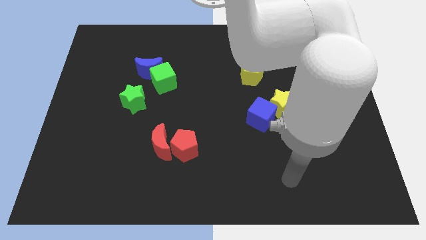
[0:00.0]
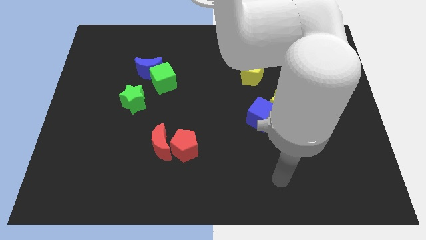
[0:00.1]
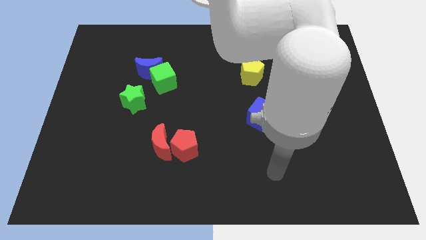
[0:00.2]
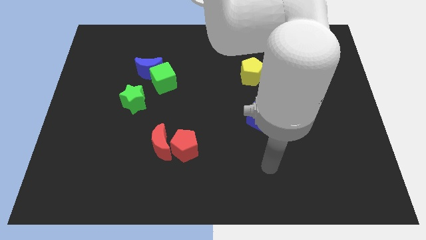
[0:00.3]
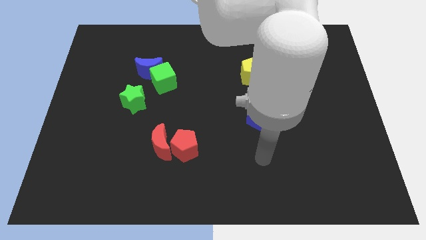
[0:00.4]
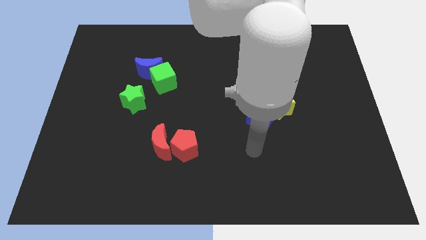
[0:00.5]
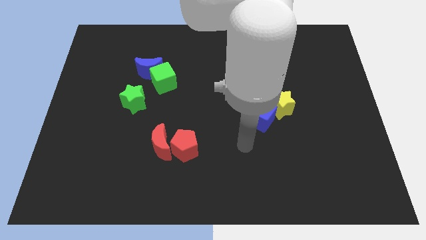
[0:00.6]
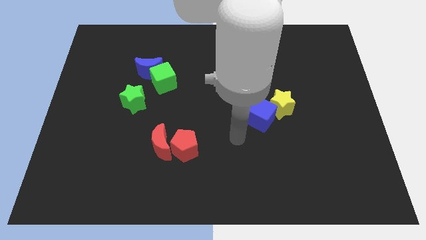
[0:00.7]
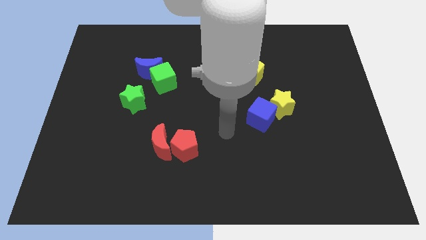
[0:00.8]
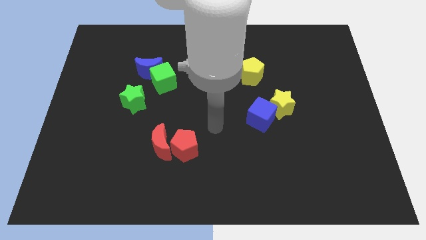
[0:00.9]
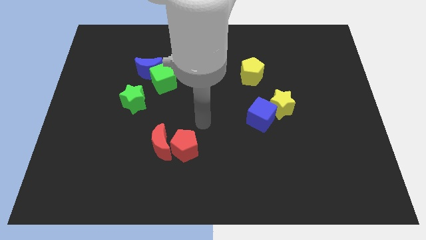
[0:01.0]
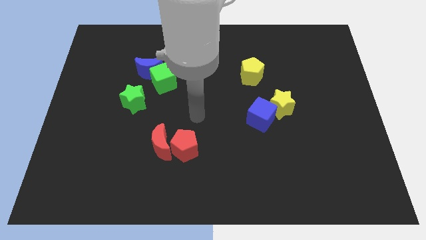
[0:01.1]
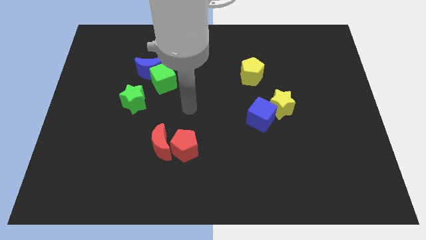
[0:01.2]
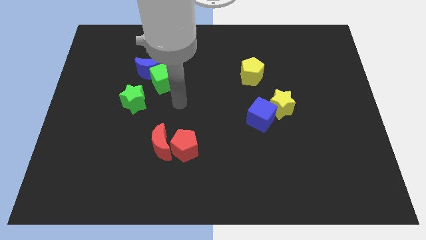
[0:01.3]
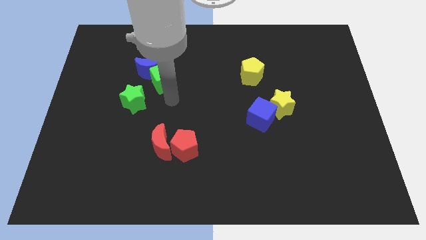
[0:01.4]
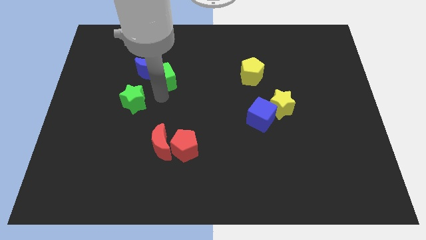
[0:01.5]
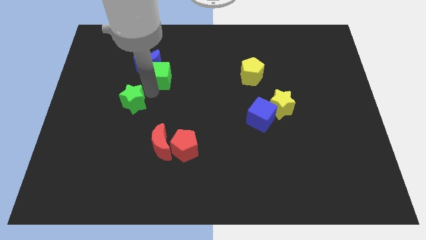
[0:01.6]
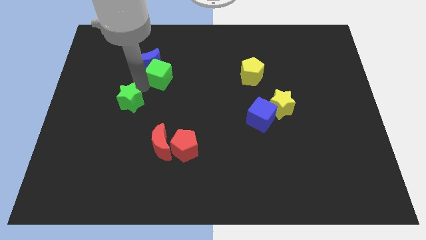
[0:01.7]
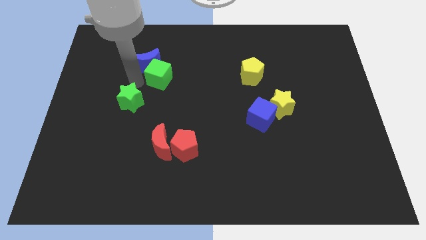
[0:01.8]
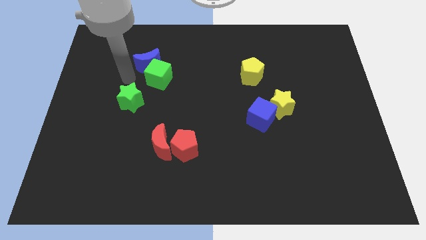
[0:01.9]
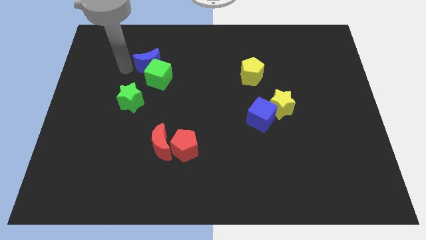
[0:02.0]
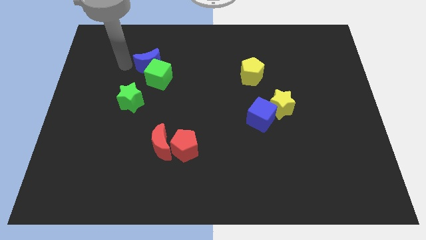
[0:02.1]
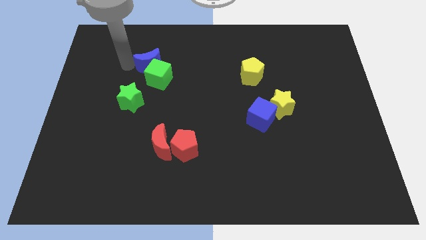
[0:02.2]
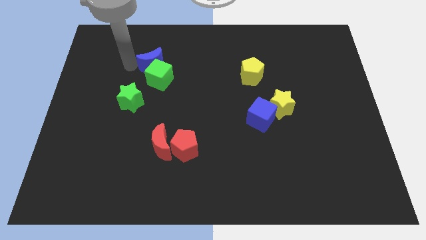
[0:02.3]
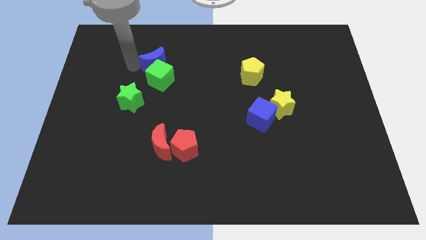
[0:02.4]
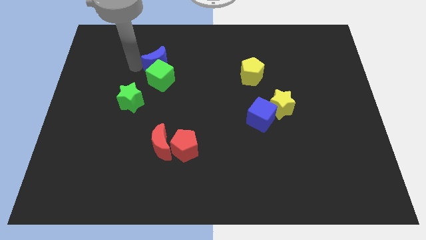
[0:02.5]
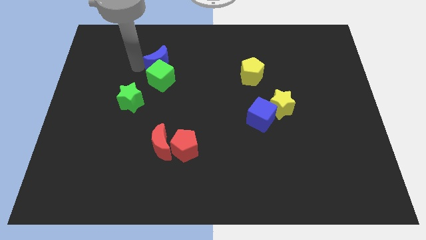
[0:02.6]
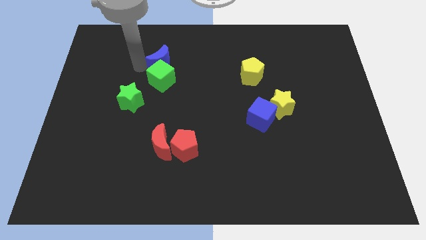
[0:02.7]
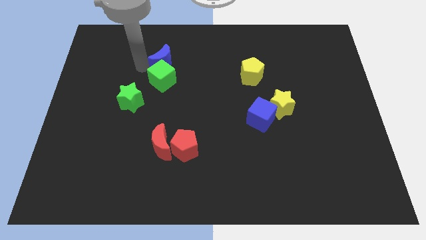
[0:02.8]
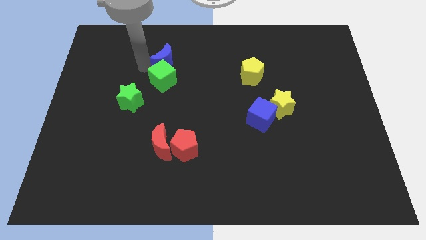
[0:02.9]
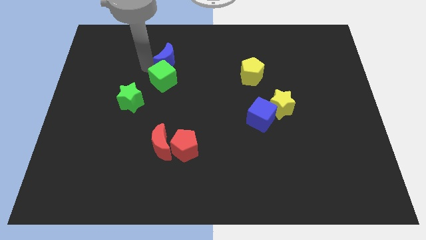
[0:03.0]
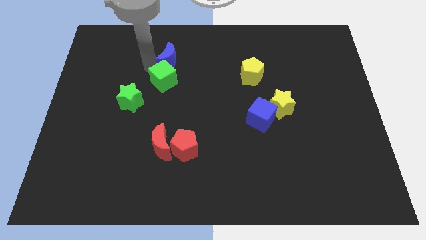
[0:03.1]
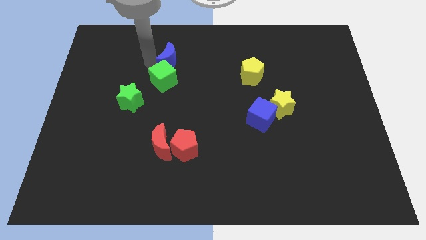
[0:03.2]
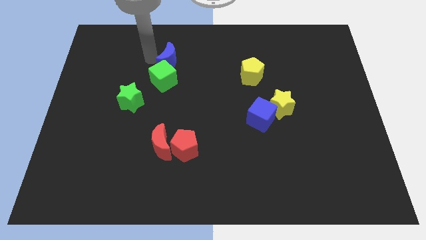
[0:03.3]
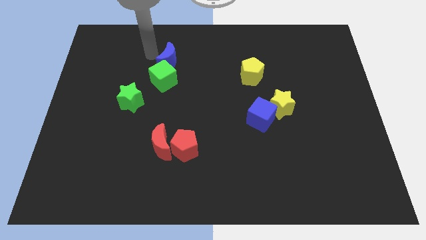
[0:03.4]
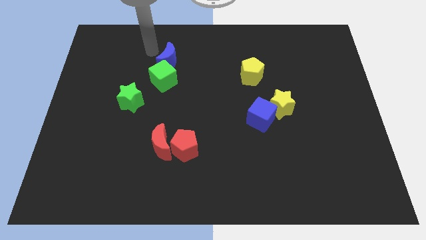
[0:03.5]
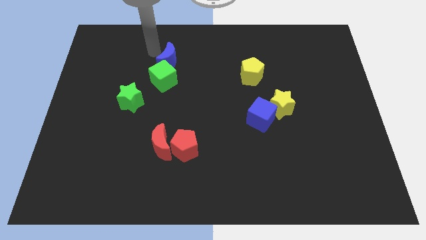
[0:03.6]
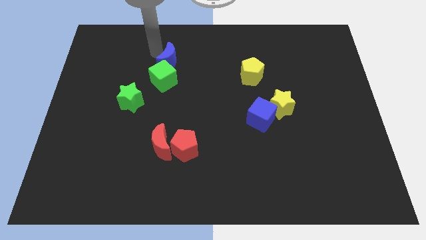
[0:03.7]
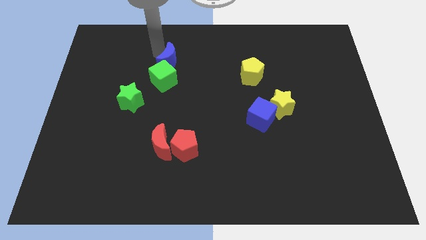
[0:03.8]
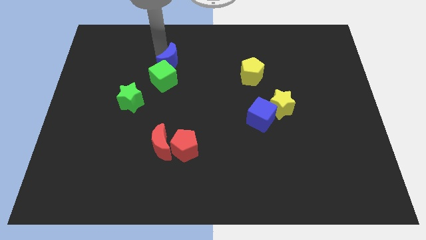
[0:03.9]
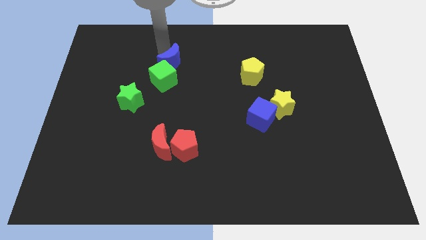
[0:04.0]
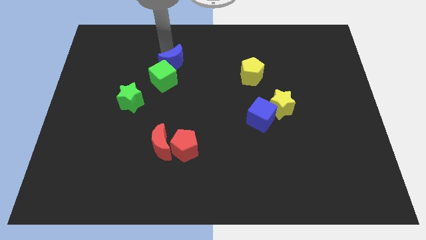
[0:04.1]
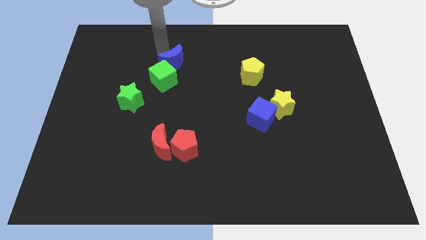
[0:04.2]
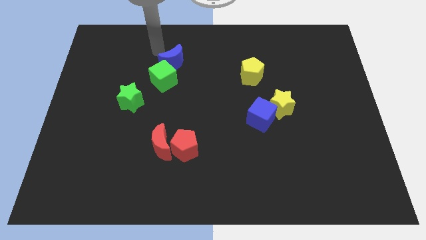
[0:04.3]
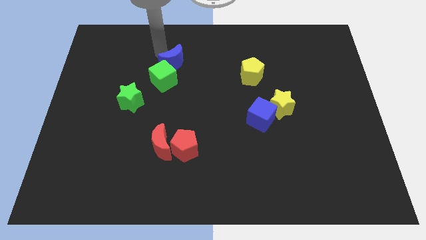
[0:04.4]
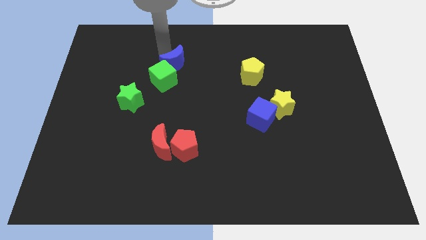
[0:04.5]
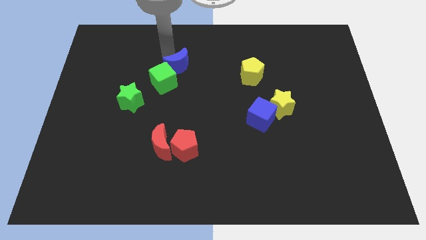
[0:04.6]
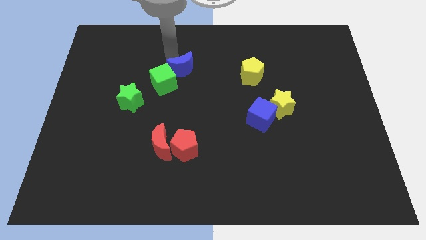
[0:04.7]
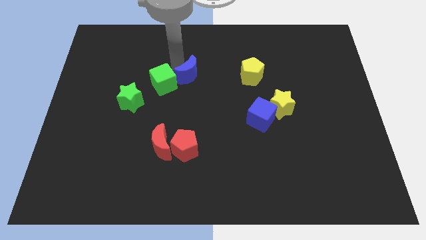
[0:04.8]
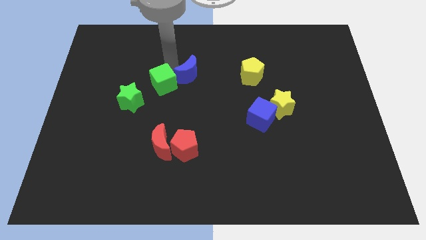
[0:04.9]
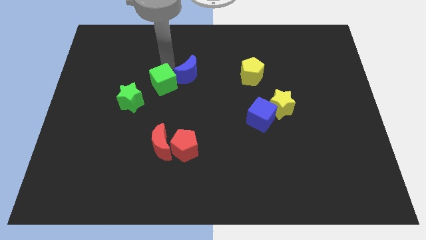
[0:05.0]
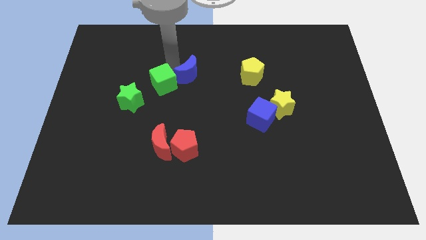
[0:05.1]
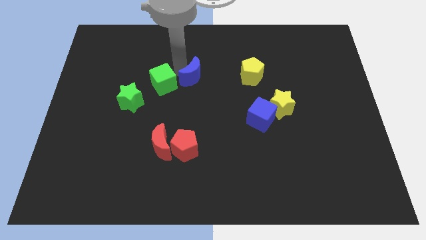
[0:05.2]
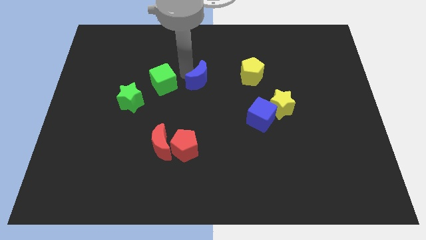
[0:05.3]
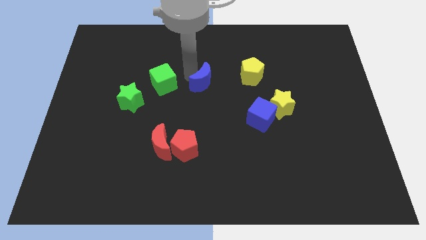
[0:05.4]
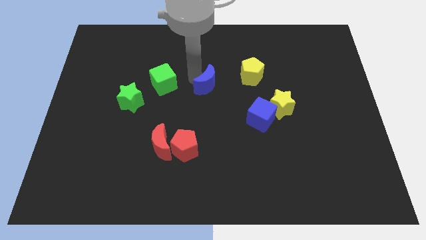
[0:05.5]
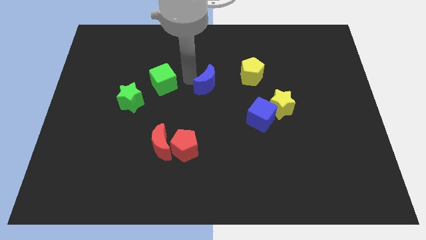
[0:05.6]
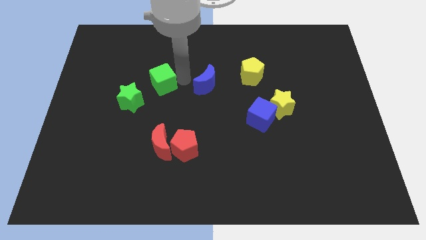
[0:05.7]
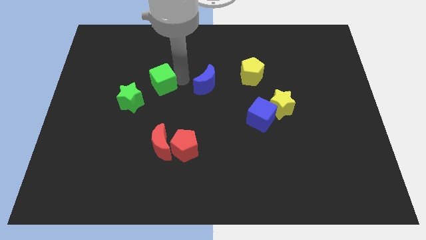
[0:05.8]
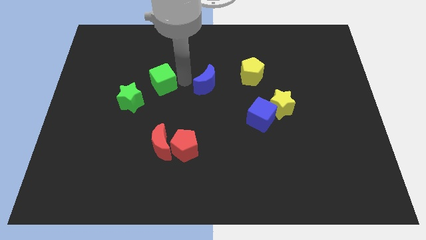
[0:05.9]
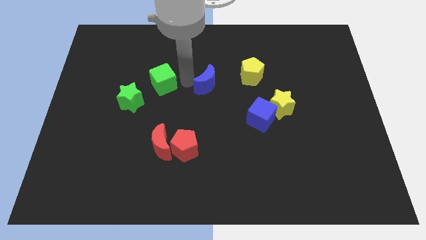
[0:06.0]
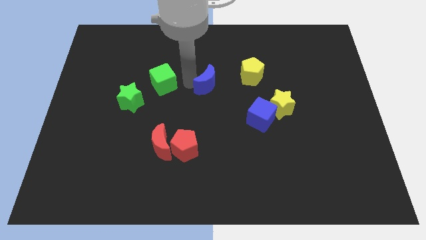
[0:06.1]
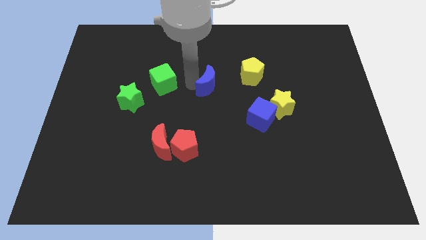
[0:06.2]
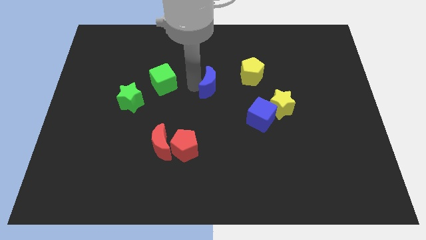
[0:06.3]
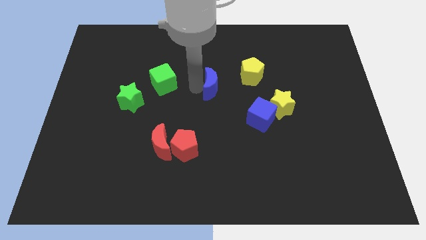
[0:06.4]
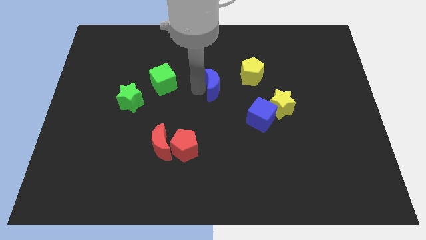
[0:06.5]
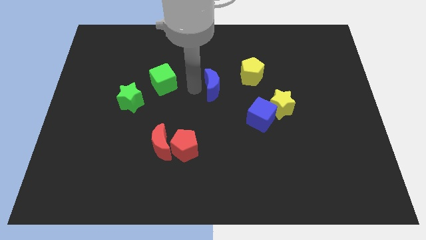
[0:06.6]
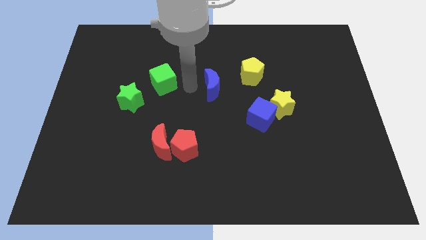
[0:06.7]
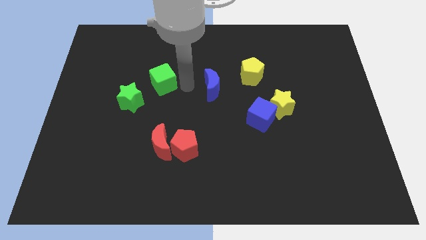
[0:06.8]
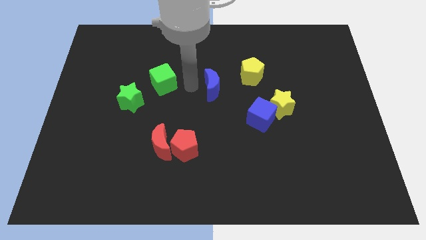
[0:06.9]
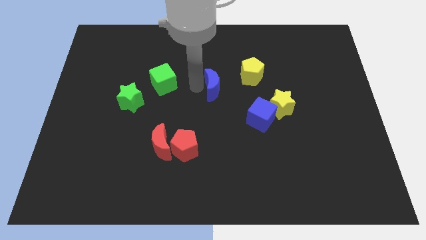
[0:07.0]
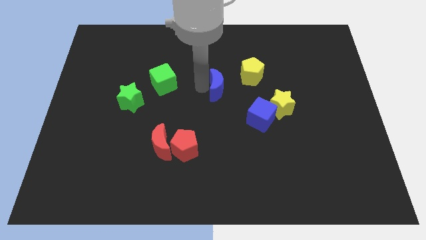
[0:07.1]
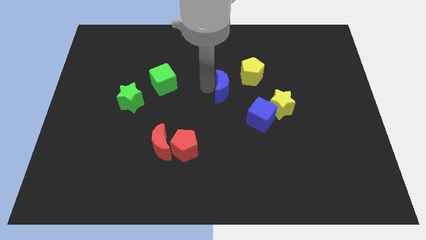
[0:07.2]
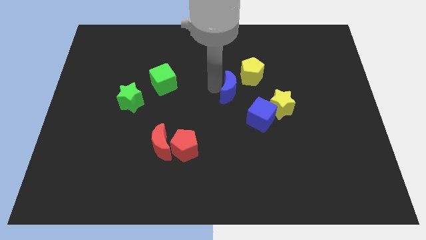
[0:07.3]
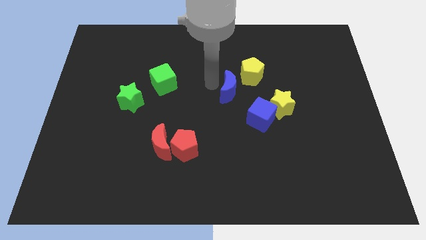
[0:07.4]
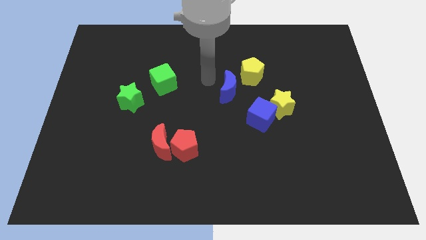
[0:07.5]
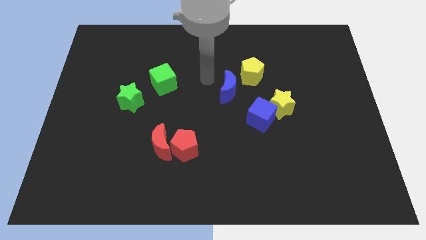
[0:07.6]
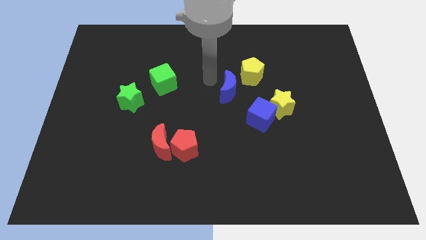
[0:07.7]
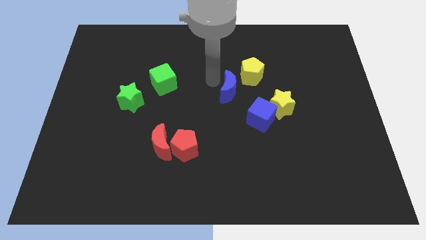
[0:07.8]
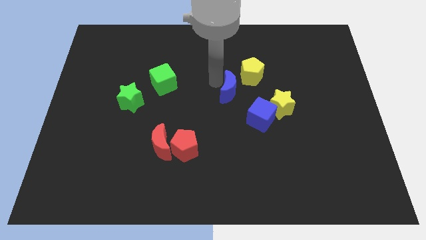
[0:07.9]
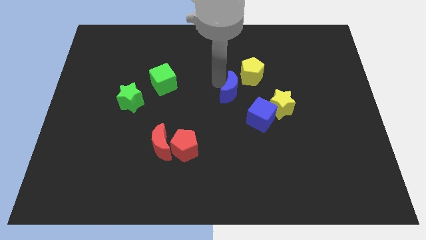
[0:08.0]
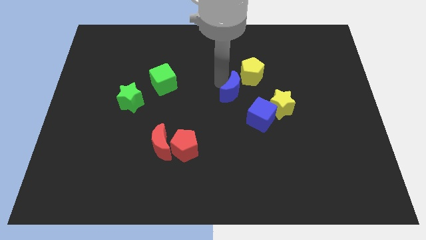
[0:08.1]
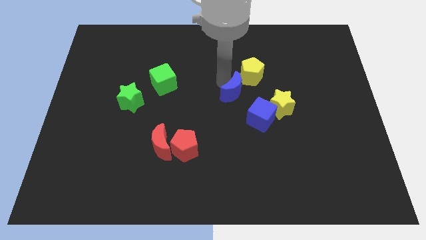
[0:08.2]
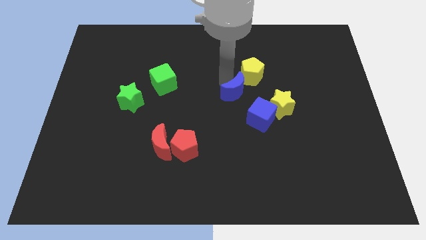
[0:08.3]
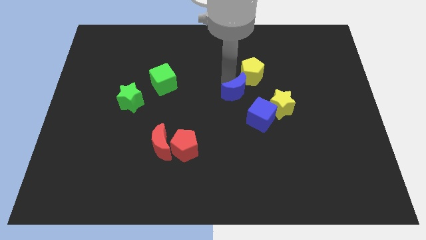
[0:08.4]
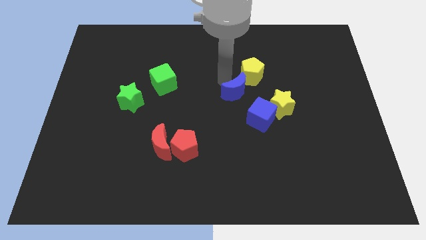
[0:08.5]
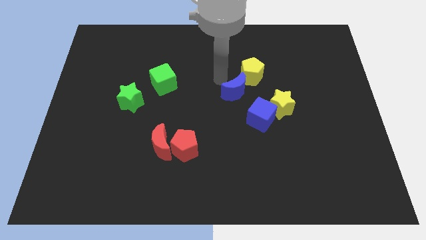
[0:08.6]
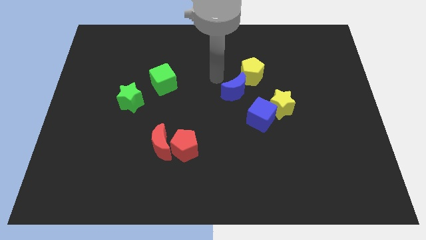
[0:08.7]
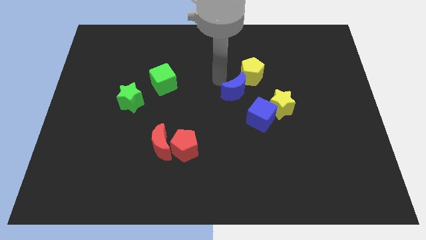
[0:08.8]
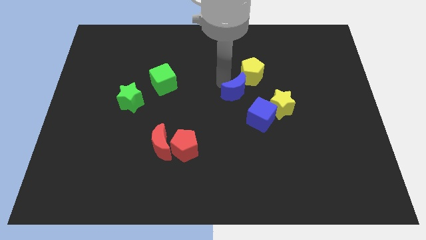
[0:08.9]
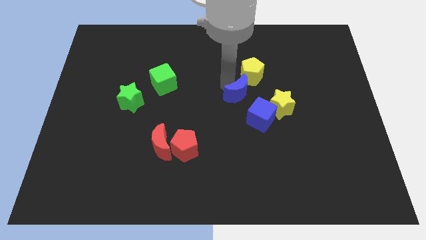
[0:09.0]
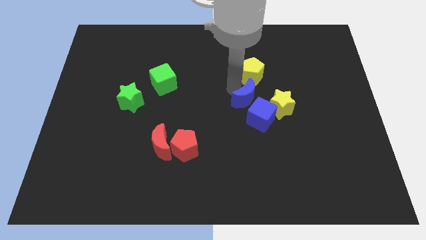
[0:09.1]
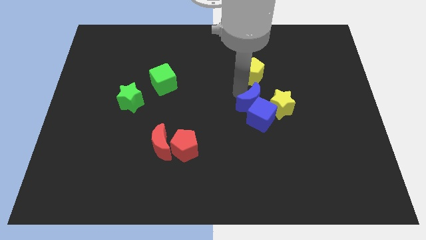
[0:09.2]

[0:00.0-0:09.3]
put the blue moon close to the blue cube
